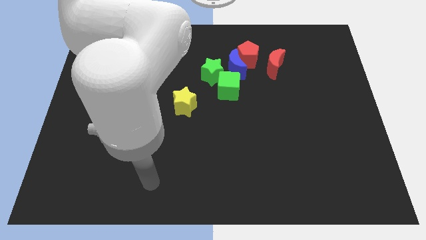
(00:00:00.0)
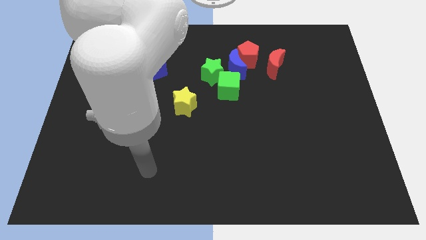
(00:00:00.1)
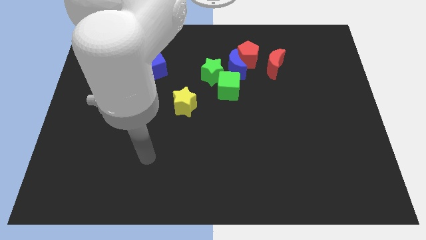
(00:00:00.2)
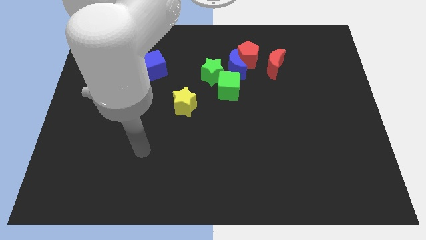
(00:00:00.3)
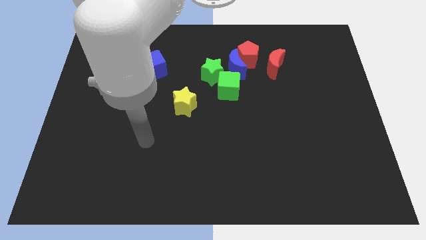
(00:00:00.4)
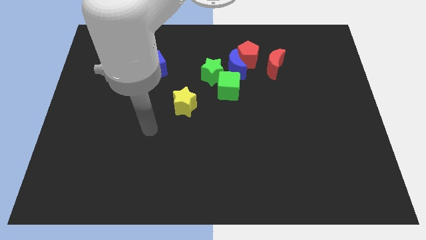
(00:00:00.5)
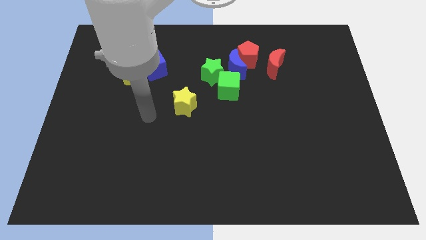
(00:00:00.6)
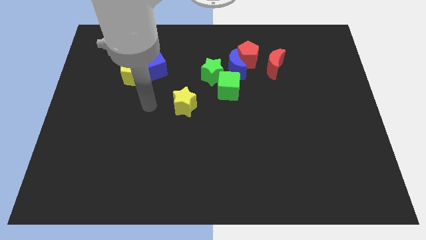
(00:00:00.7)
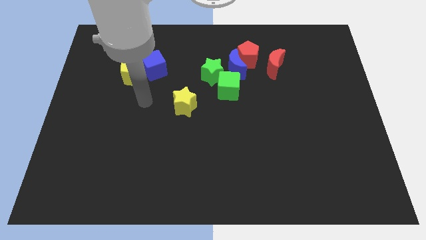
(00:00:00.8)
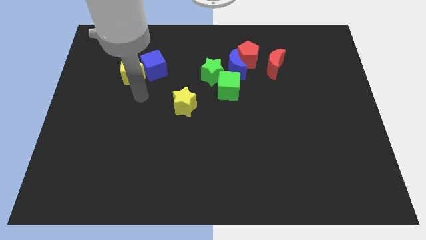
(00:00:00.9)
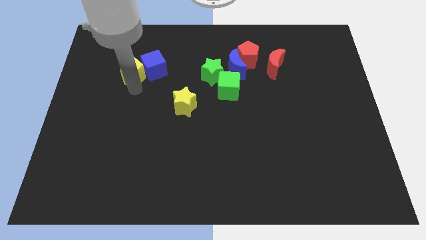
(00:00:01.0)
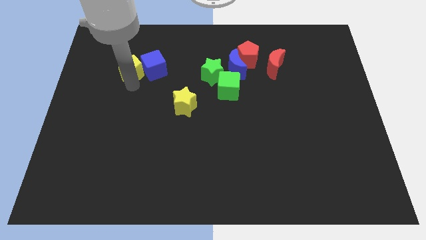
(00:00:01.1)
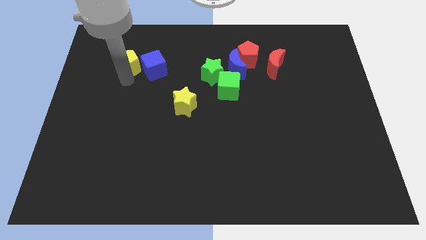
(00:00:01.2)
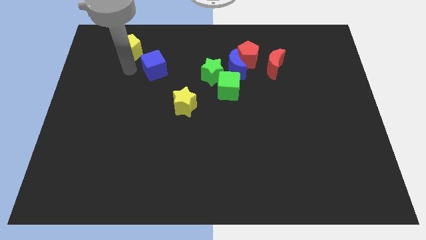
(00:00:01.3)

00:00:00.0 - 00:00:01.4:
move the blue cube away from the yellow pentagon

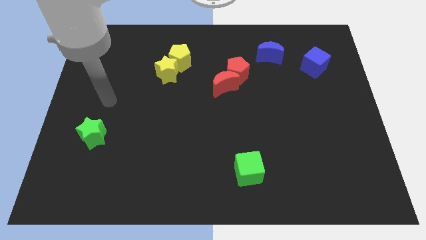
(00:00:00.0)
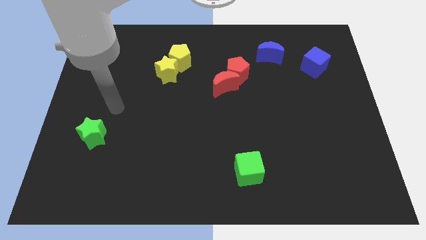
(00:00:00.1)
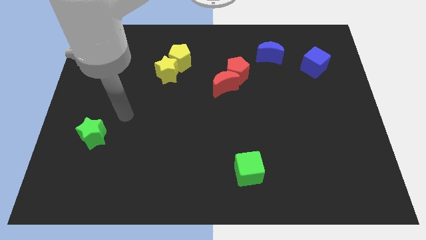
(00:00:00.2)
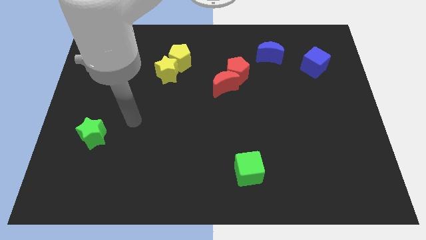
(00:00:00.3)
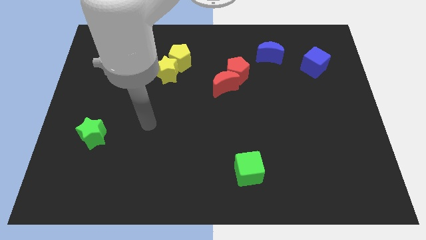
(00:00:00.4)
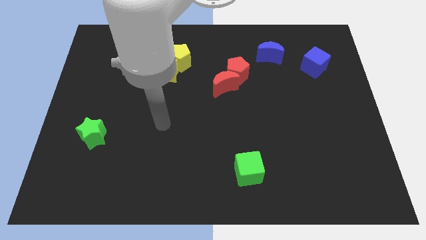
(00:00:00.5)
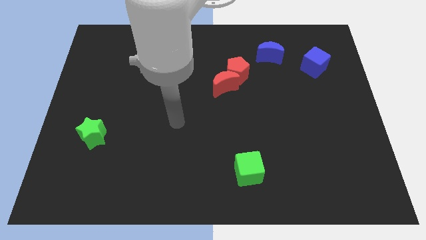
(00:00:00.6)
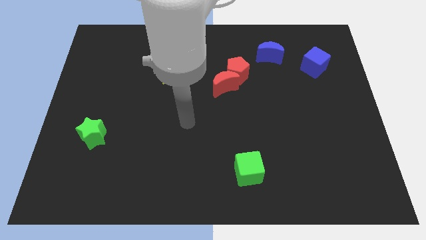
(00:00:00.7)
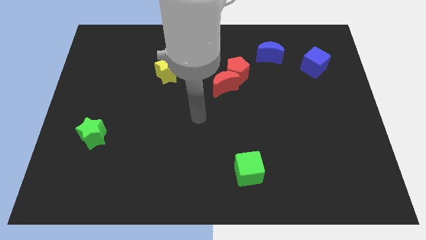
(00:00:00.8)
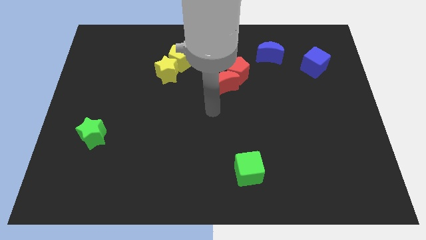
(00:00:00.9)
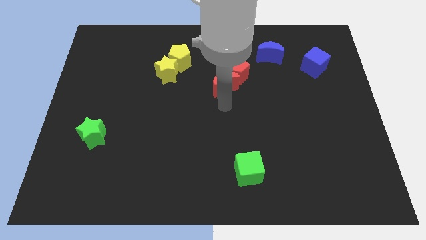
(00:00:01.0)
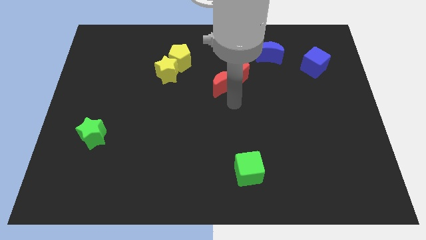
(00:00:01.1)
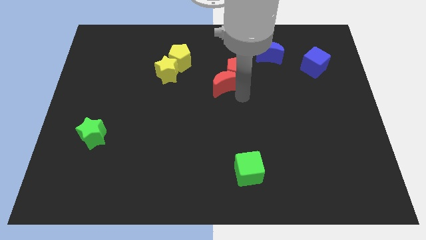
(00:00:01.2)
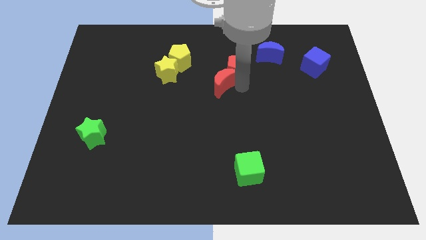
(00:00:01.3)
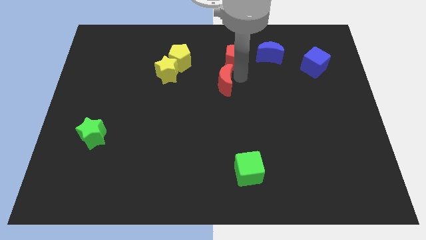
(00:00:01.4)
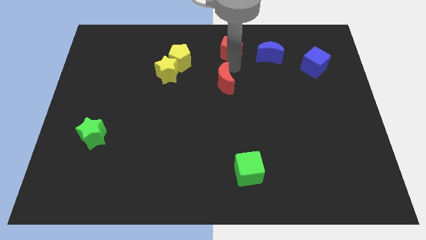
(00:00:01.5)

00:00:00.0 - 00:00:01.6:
move the red moon away from the red pentagon

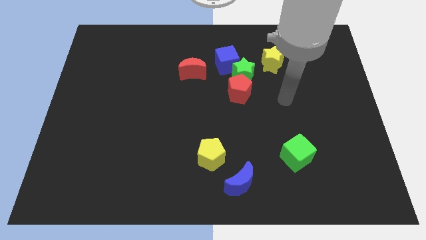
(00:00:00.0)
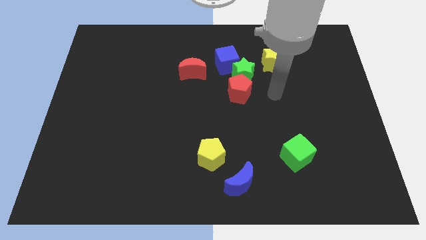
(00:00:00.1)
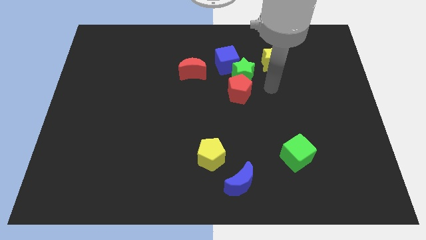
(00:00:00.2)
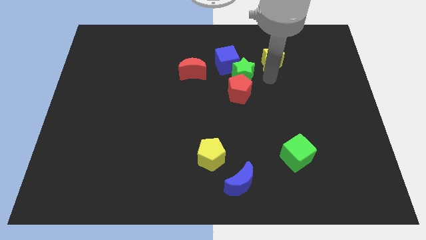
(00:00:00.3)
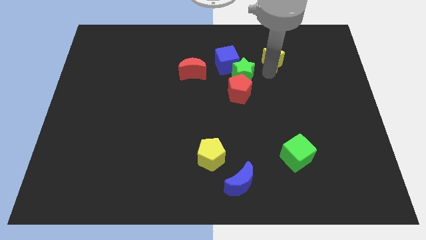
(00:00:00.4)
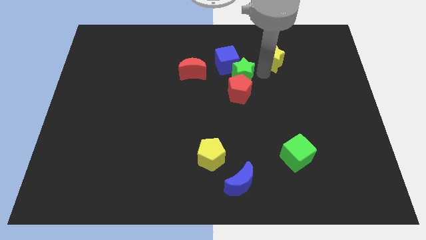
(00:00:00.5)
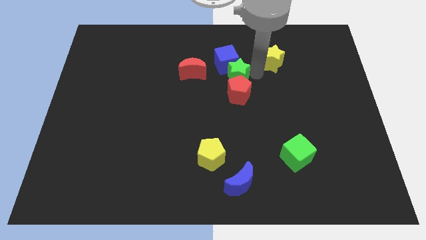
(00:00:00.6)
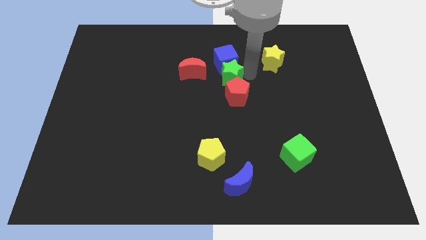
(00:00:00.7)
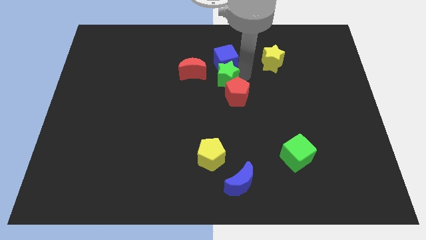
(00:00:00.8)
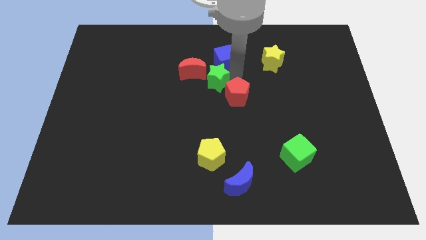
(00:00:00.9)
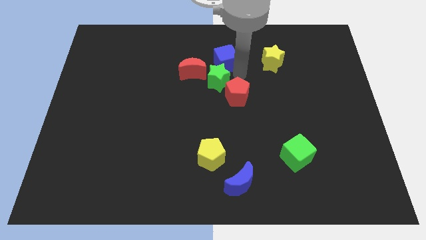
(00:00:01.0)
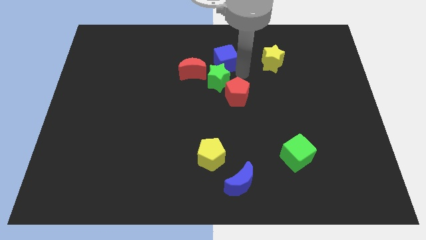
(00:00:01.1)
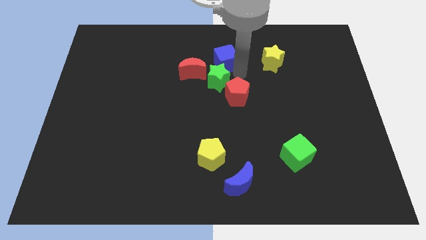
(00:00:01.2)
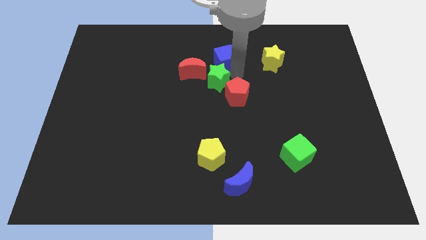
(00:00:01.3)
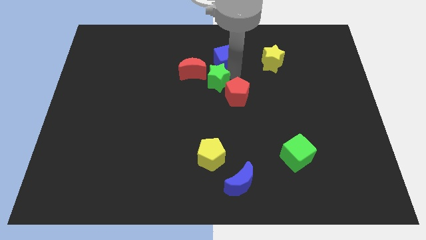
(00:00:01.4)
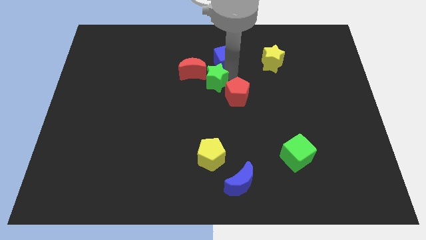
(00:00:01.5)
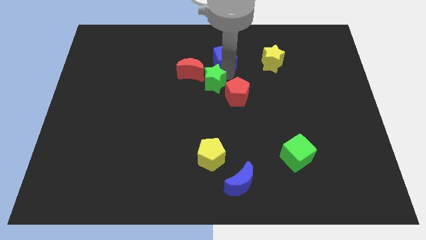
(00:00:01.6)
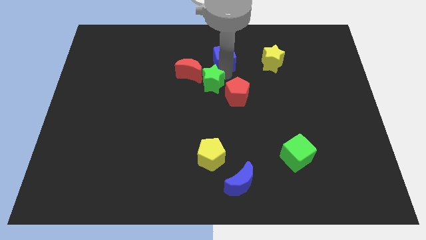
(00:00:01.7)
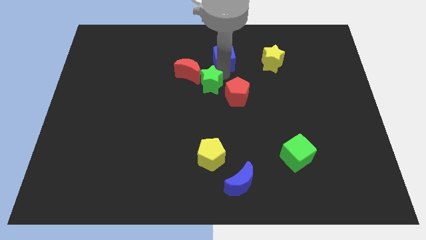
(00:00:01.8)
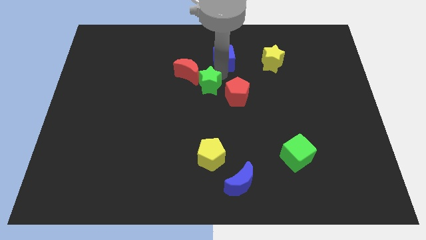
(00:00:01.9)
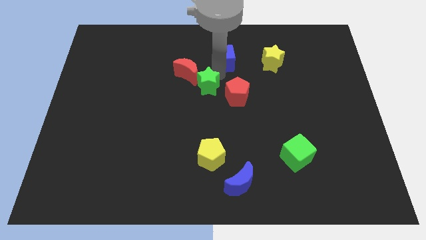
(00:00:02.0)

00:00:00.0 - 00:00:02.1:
separate the green star from the red pentagon, blue cube, and yellow star

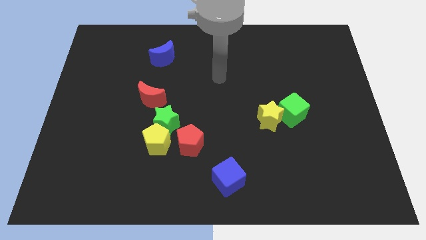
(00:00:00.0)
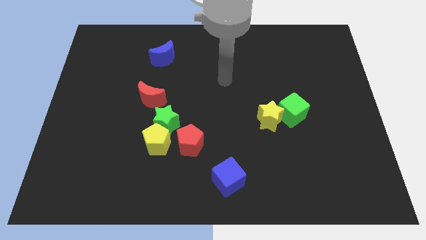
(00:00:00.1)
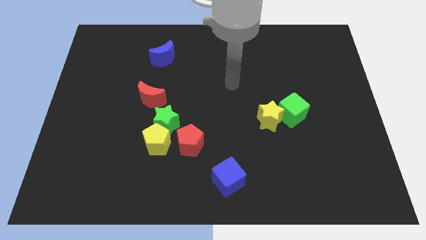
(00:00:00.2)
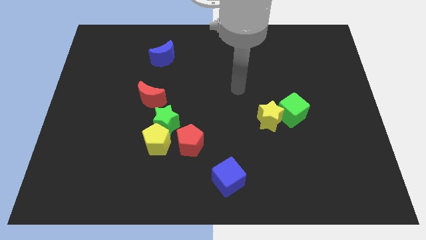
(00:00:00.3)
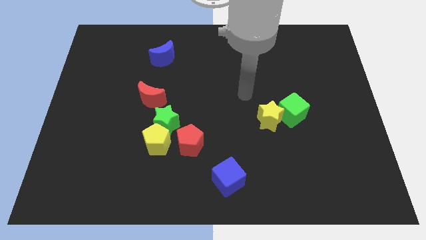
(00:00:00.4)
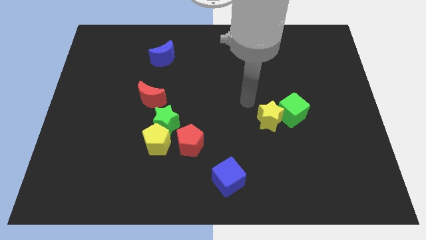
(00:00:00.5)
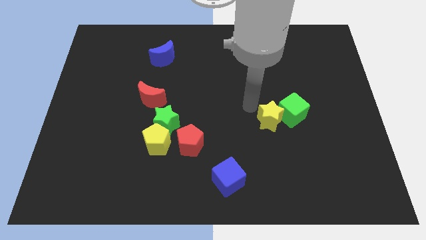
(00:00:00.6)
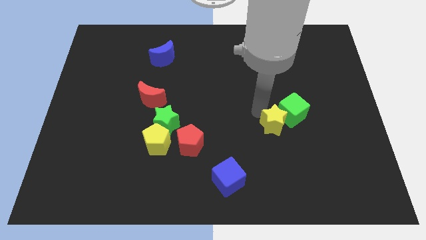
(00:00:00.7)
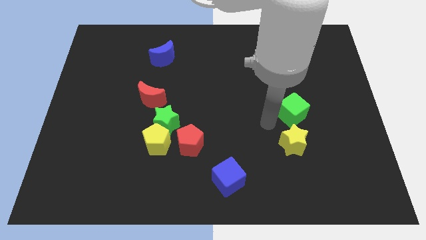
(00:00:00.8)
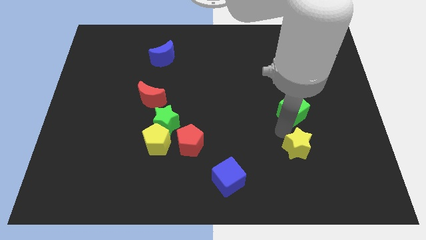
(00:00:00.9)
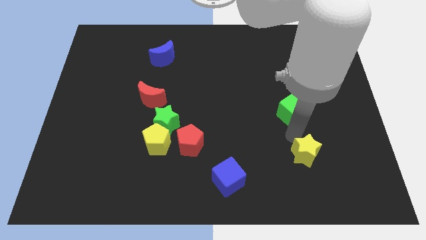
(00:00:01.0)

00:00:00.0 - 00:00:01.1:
pull the green cube apart from the yellow star

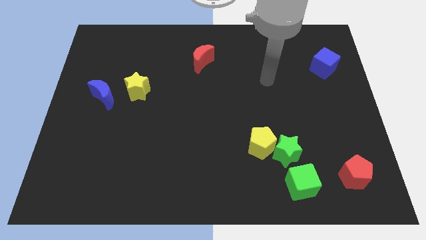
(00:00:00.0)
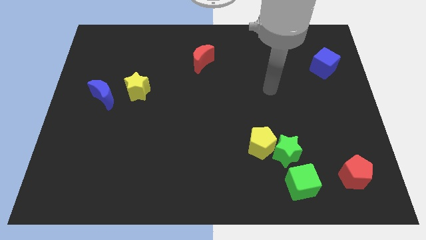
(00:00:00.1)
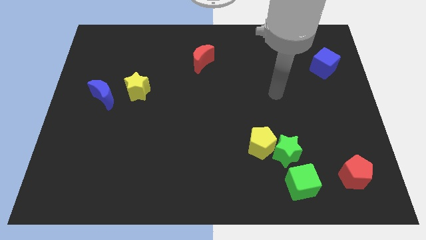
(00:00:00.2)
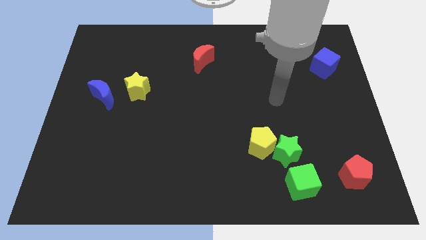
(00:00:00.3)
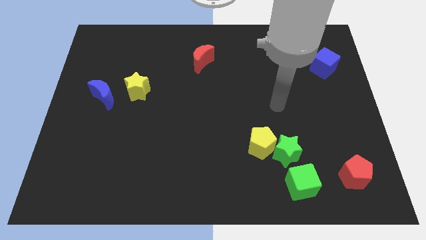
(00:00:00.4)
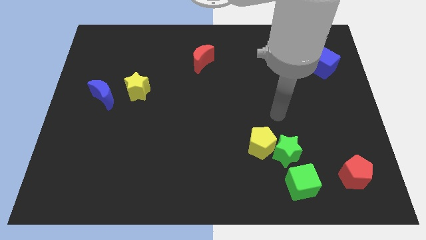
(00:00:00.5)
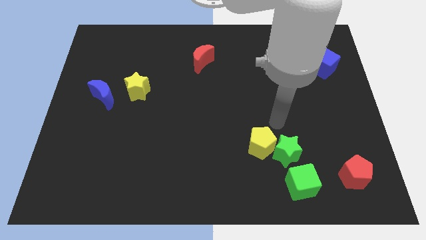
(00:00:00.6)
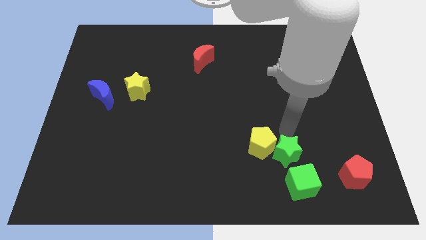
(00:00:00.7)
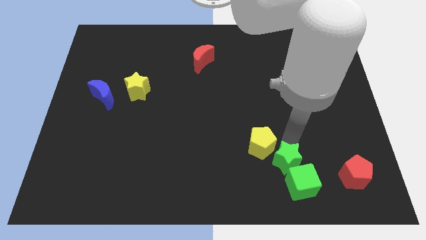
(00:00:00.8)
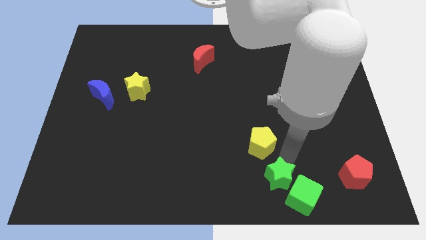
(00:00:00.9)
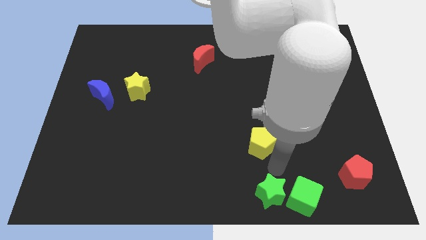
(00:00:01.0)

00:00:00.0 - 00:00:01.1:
pull the yellow pentagon apart from the green star

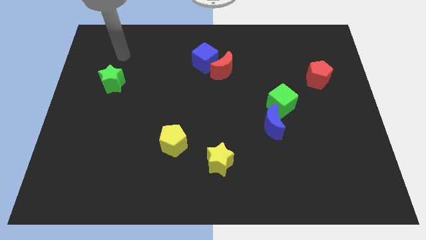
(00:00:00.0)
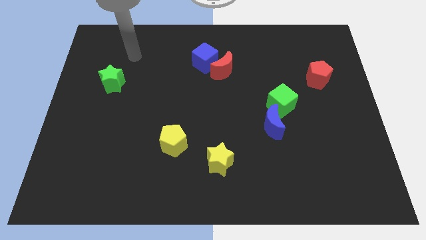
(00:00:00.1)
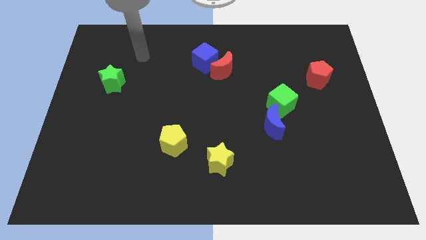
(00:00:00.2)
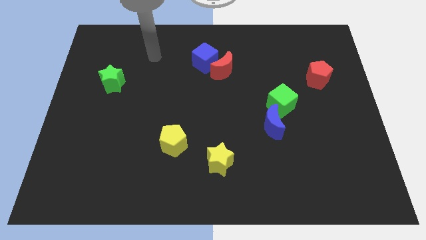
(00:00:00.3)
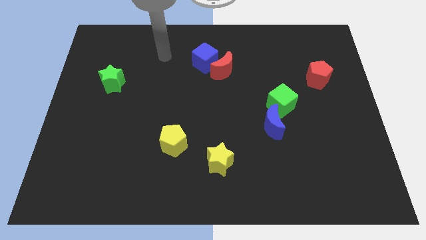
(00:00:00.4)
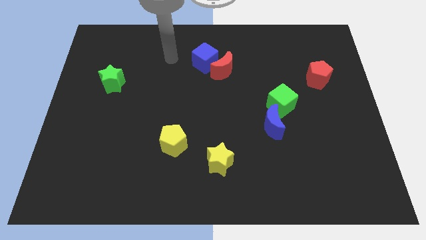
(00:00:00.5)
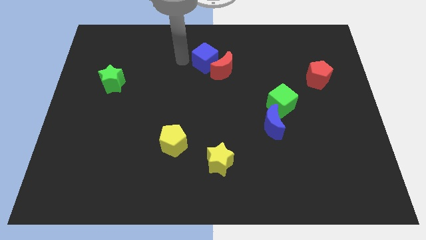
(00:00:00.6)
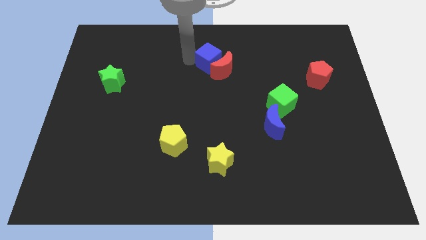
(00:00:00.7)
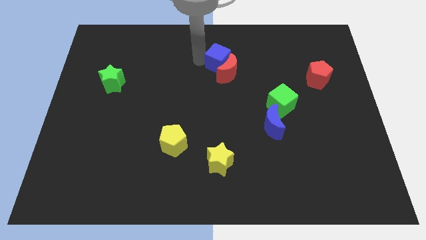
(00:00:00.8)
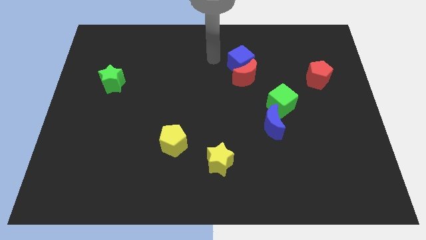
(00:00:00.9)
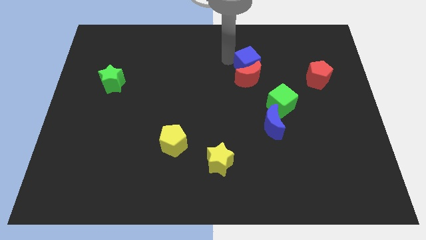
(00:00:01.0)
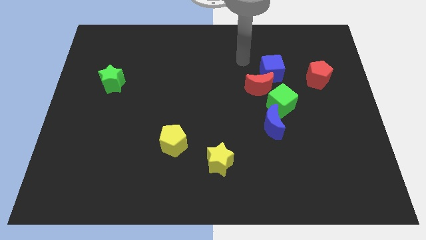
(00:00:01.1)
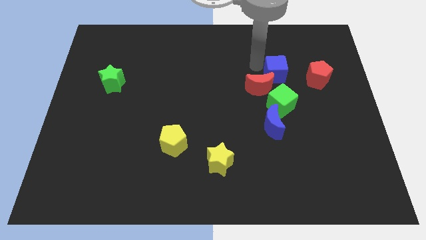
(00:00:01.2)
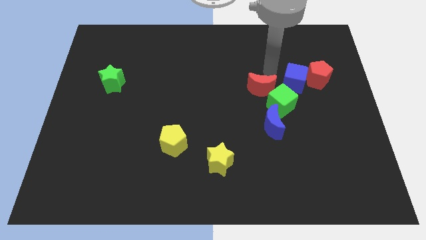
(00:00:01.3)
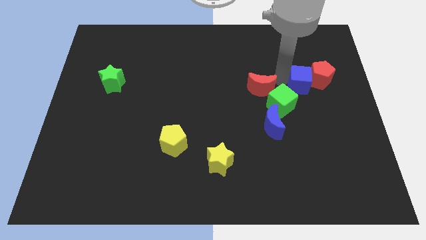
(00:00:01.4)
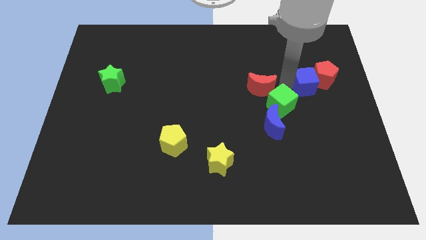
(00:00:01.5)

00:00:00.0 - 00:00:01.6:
move the red moon away from the blue cube

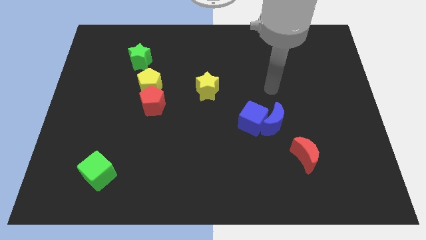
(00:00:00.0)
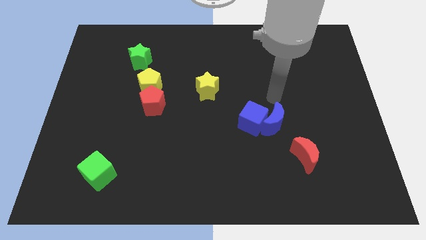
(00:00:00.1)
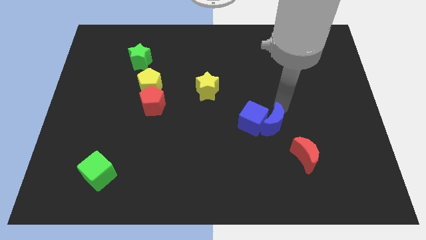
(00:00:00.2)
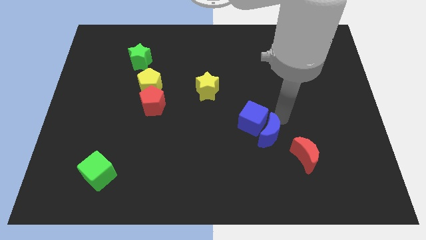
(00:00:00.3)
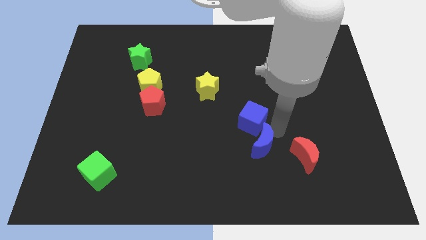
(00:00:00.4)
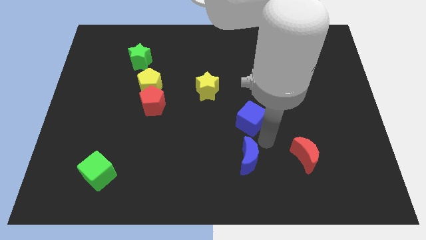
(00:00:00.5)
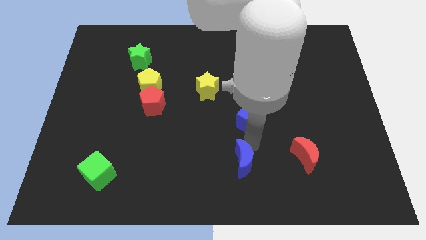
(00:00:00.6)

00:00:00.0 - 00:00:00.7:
move the blue cube away from the blue moon
